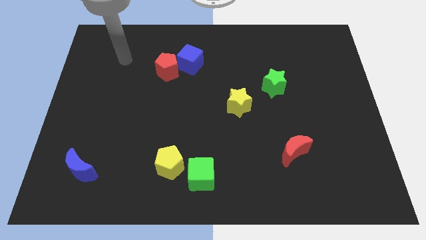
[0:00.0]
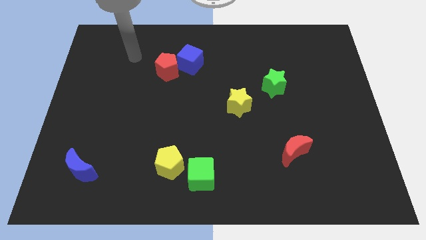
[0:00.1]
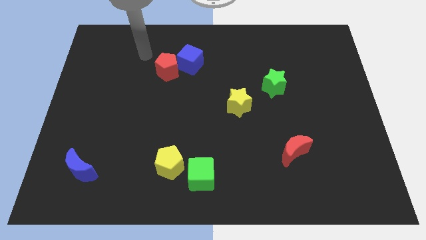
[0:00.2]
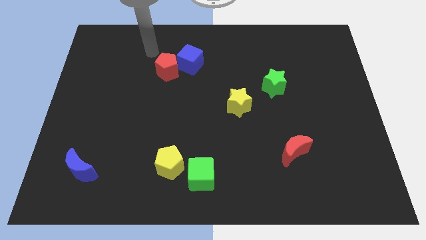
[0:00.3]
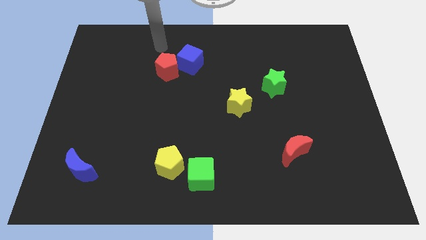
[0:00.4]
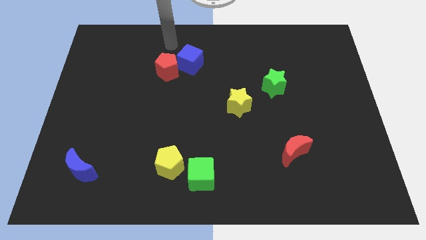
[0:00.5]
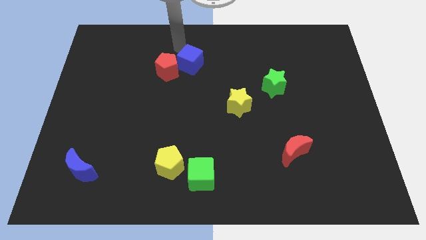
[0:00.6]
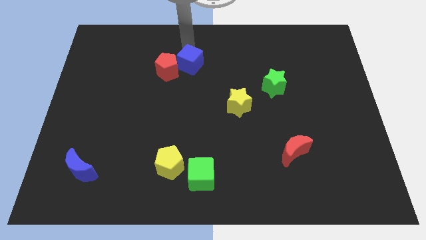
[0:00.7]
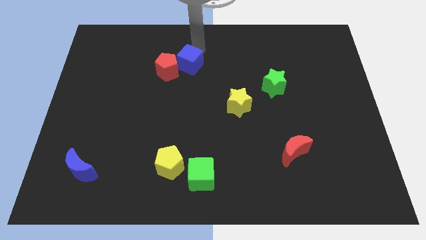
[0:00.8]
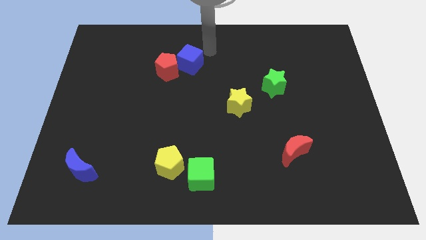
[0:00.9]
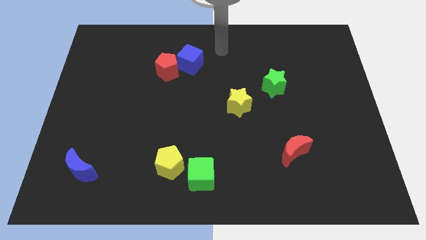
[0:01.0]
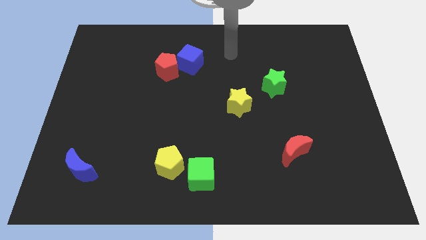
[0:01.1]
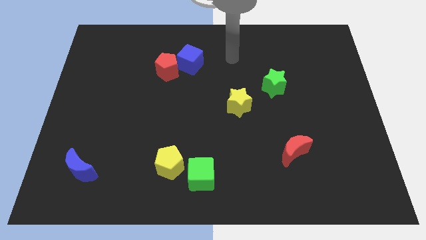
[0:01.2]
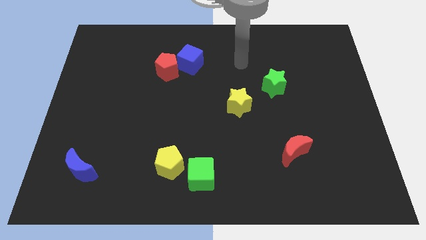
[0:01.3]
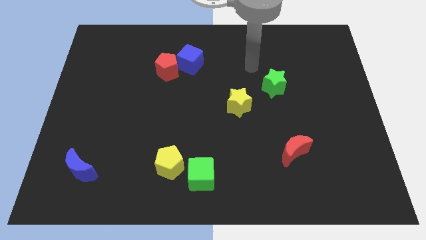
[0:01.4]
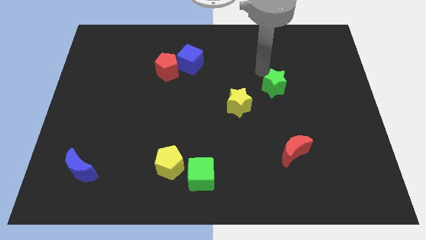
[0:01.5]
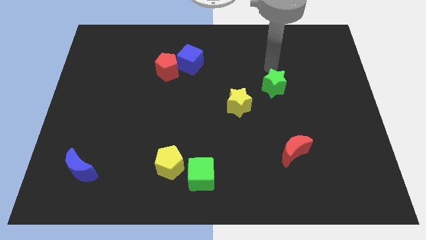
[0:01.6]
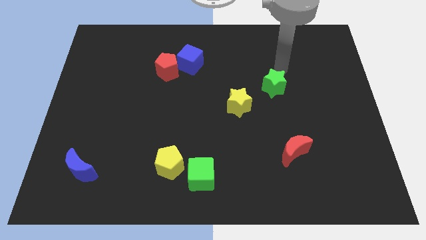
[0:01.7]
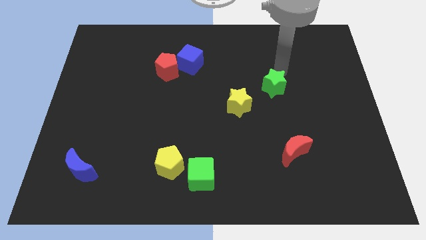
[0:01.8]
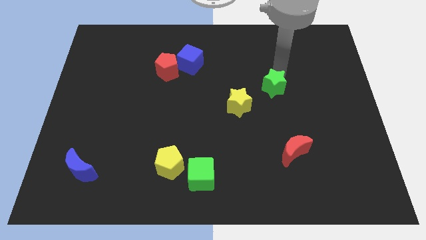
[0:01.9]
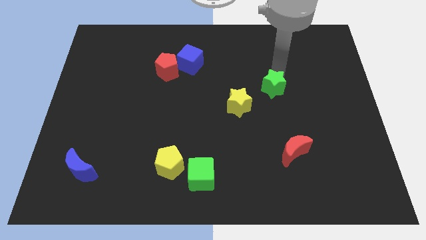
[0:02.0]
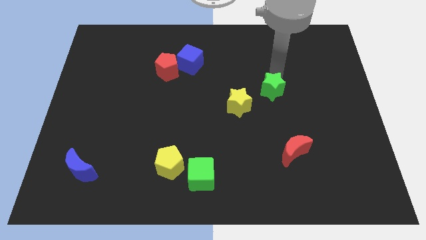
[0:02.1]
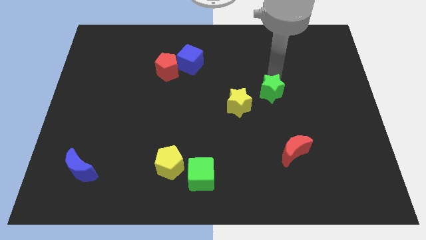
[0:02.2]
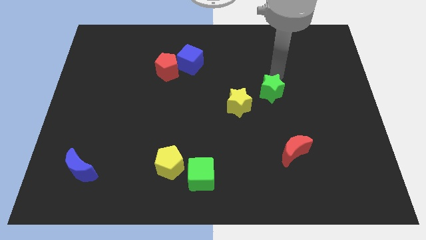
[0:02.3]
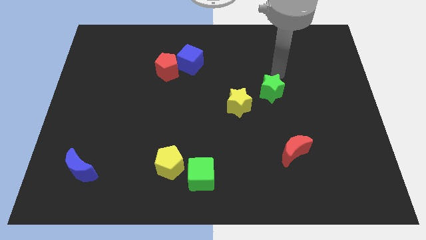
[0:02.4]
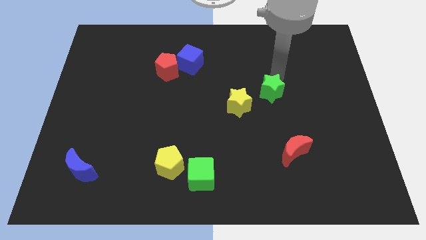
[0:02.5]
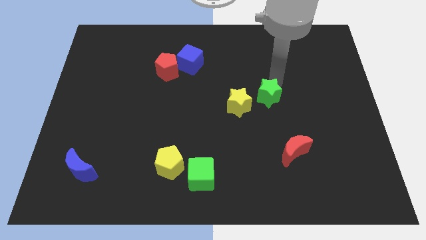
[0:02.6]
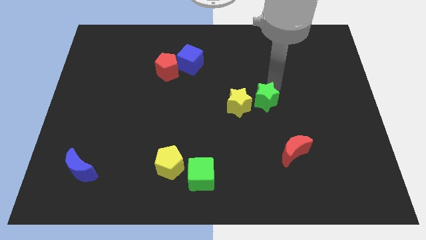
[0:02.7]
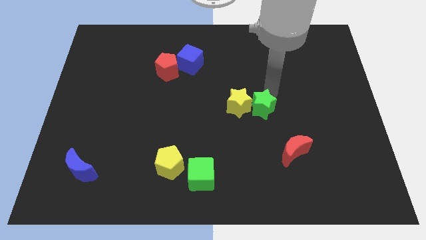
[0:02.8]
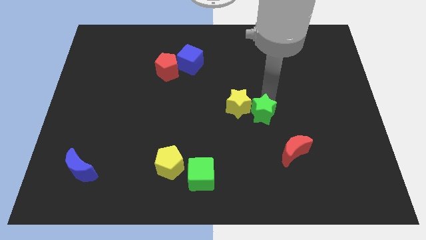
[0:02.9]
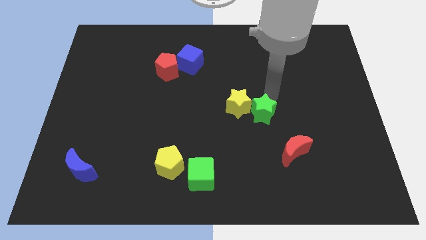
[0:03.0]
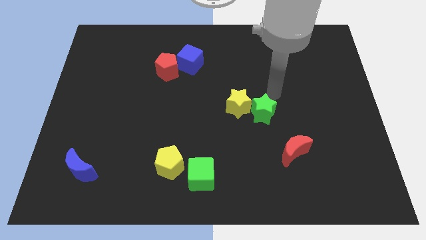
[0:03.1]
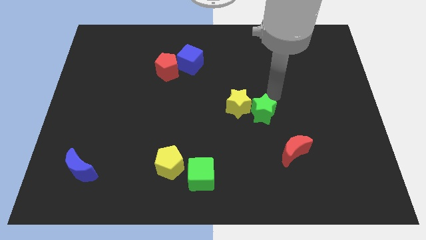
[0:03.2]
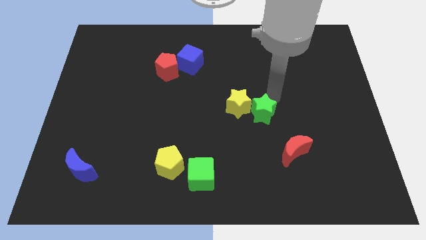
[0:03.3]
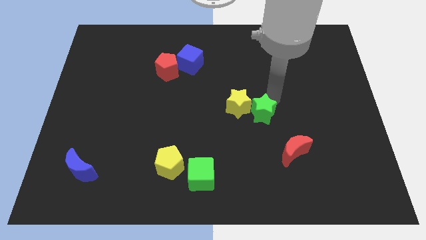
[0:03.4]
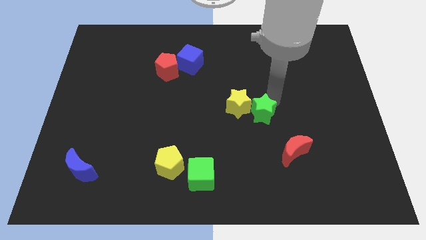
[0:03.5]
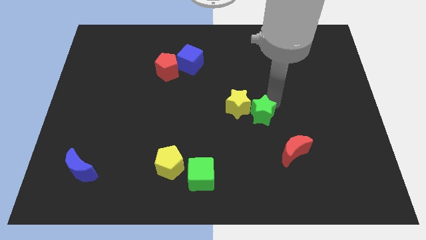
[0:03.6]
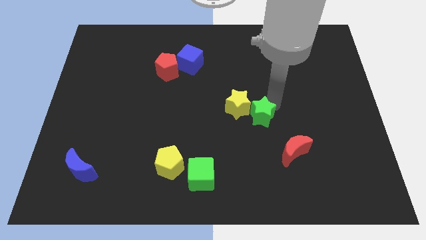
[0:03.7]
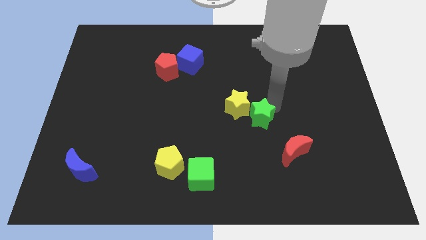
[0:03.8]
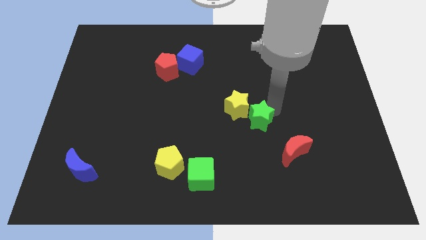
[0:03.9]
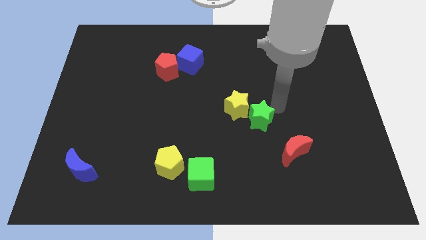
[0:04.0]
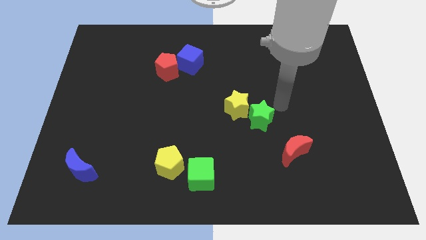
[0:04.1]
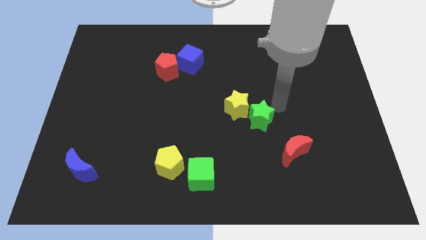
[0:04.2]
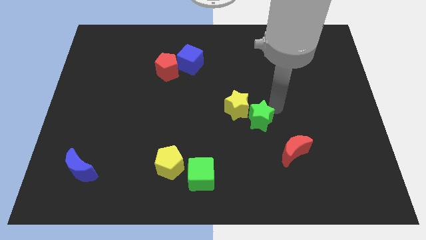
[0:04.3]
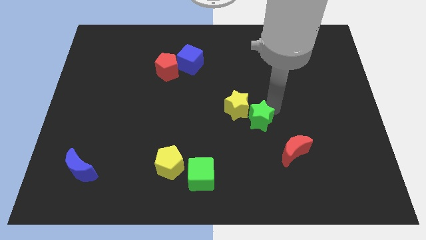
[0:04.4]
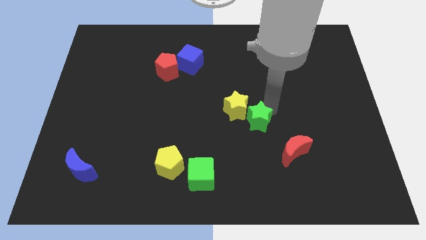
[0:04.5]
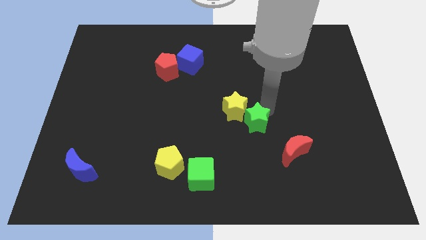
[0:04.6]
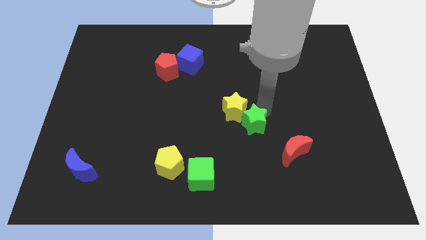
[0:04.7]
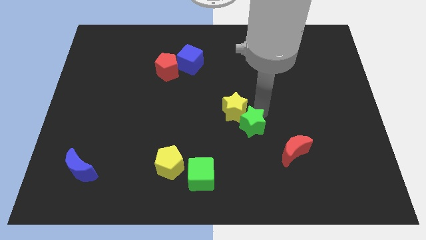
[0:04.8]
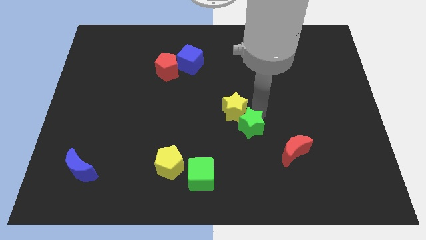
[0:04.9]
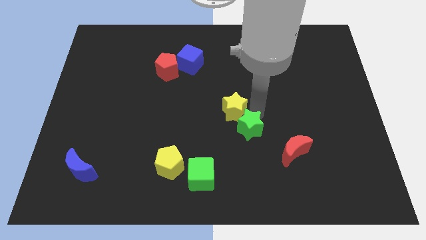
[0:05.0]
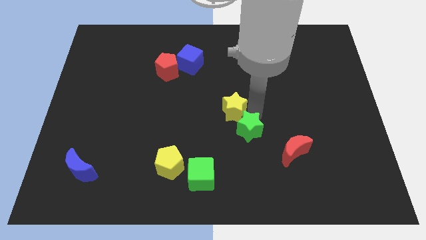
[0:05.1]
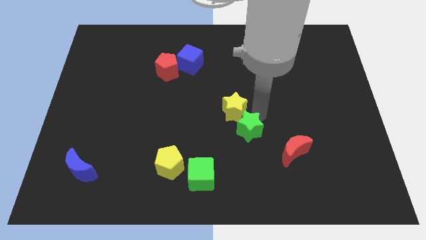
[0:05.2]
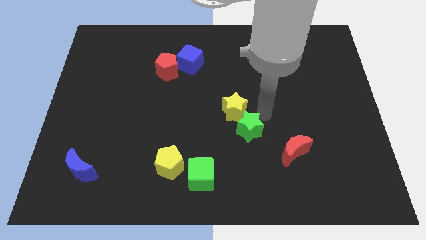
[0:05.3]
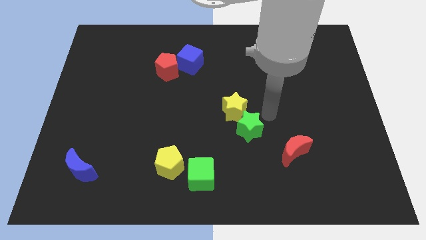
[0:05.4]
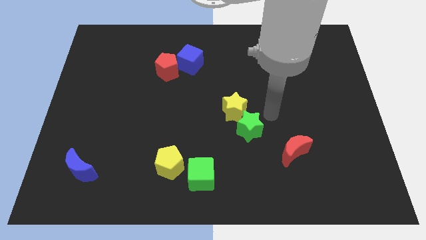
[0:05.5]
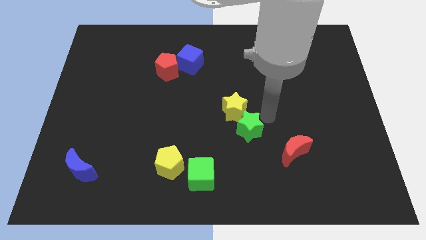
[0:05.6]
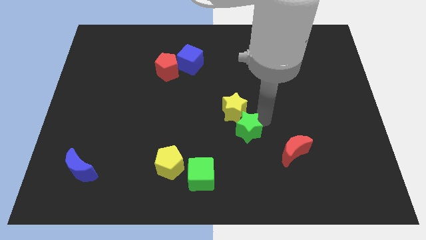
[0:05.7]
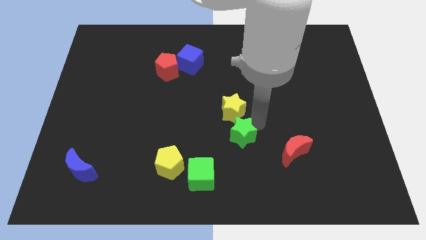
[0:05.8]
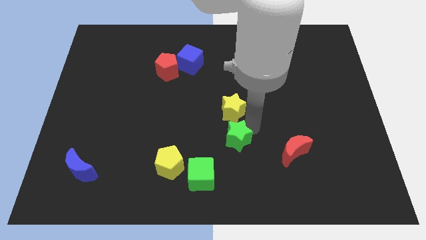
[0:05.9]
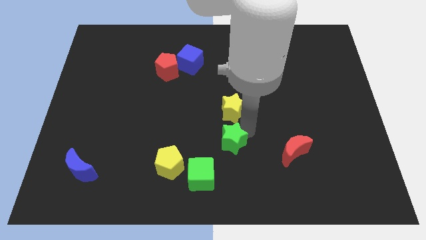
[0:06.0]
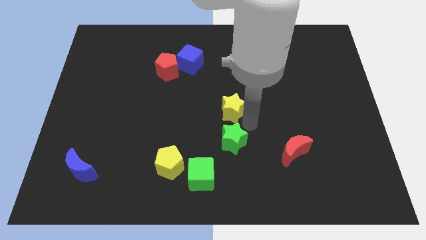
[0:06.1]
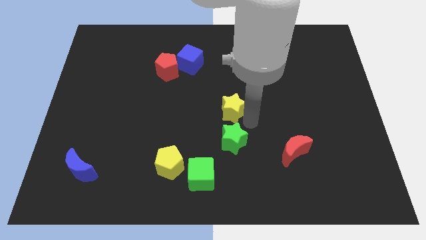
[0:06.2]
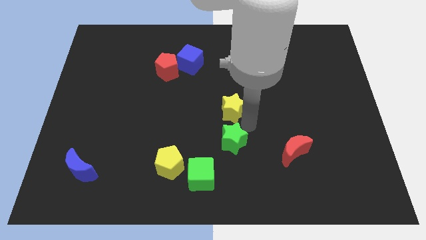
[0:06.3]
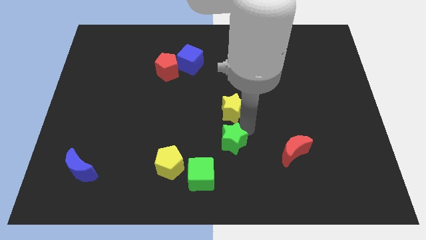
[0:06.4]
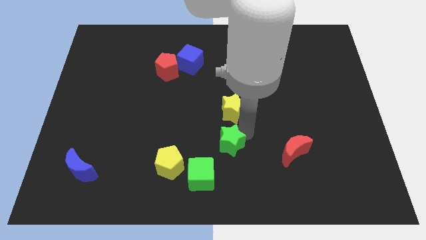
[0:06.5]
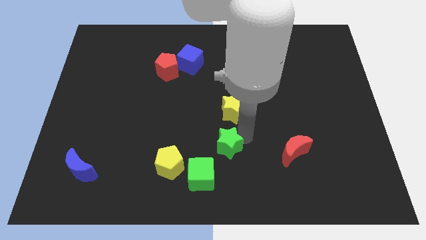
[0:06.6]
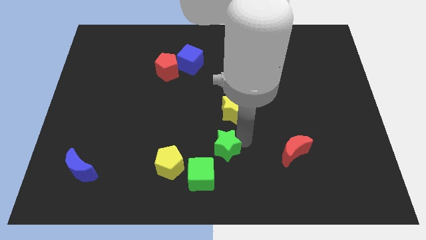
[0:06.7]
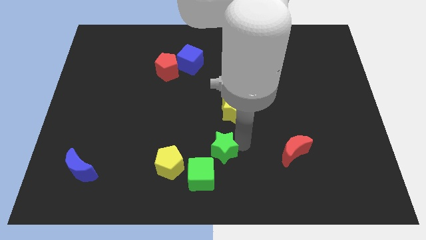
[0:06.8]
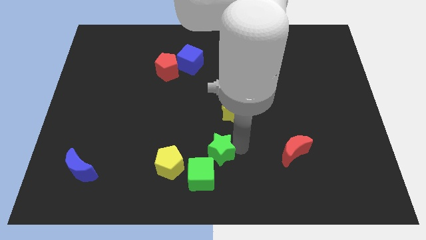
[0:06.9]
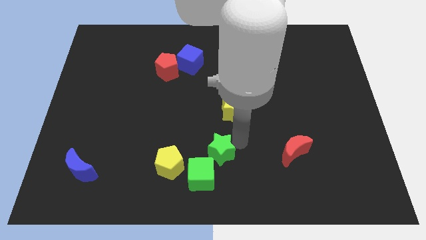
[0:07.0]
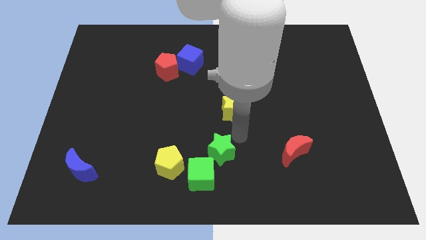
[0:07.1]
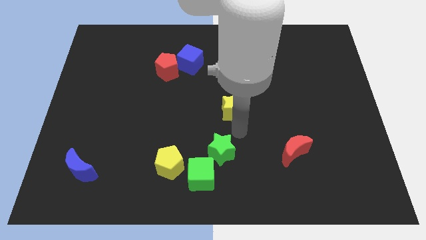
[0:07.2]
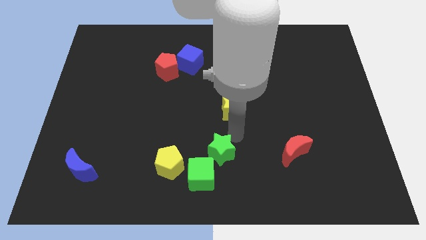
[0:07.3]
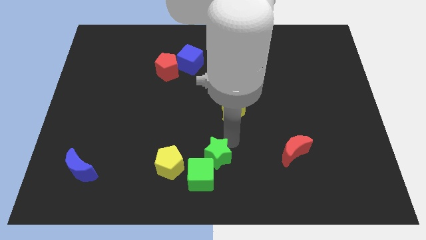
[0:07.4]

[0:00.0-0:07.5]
slide the green star to the green cube
